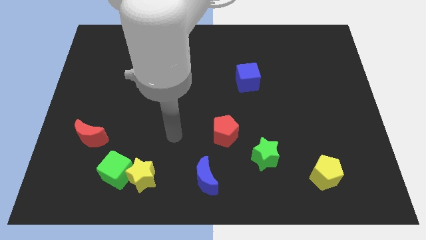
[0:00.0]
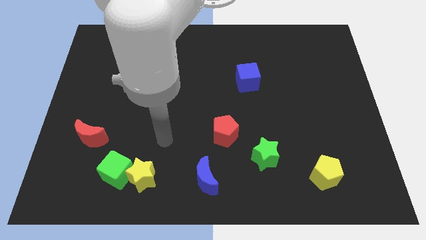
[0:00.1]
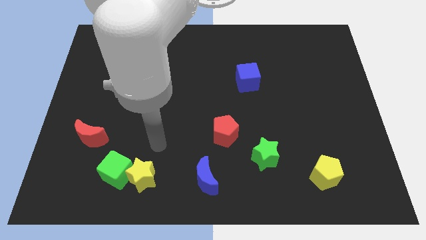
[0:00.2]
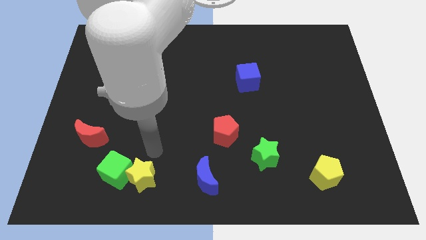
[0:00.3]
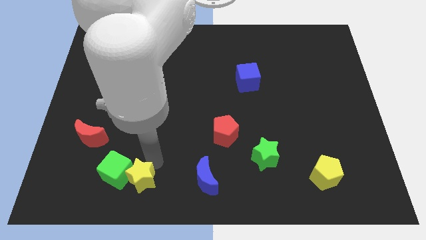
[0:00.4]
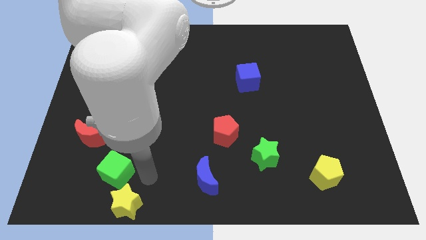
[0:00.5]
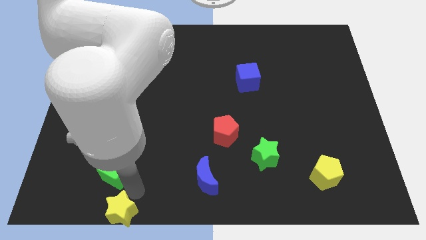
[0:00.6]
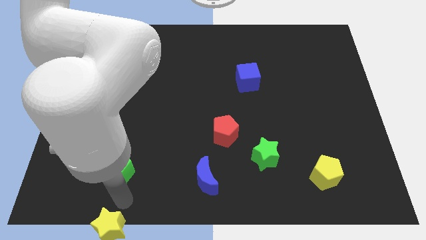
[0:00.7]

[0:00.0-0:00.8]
pull the green cube apart from the yellow star

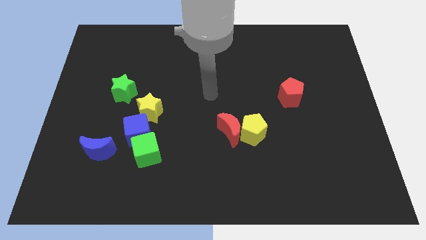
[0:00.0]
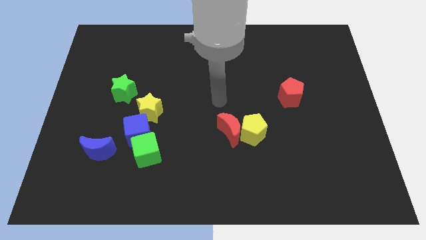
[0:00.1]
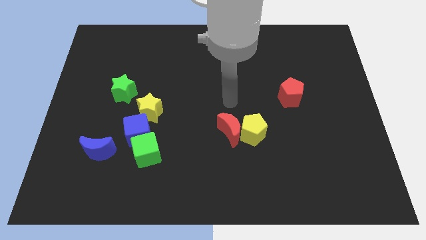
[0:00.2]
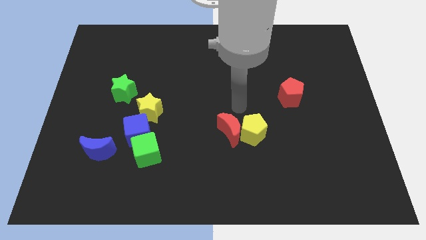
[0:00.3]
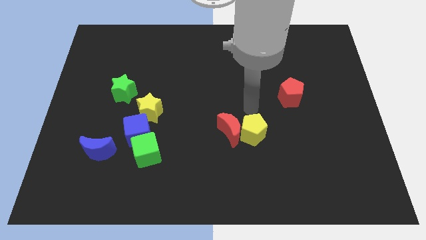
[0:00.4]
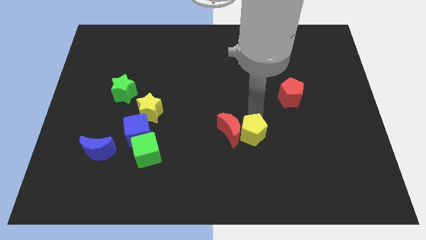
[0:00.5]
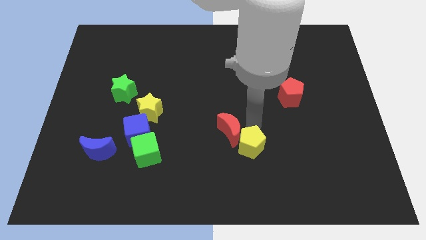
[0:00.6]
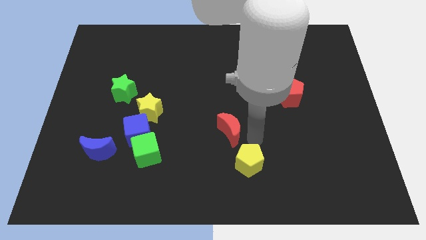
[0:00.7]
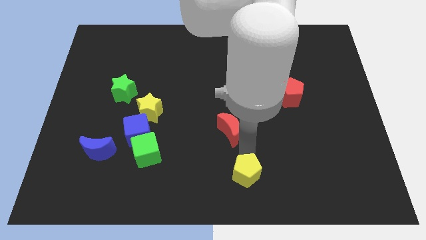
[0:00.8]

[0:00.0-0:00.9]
separate the red moon from the yellow pentagon

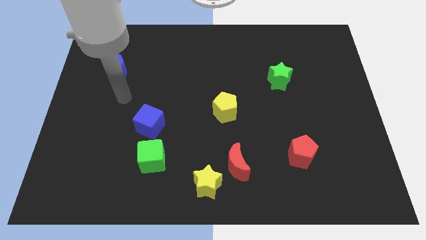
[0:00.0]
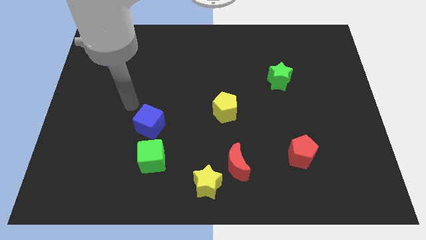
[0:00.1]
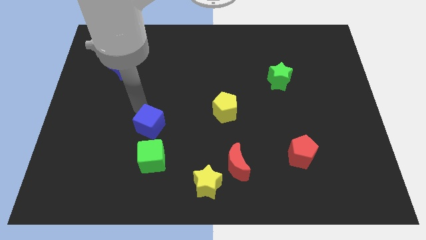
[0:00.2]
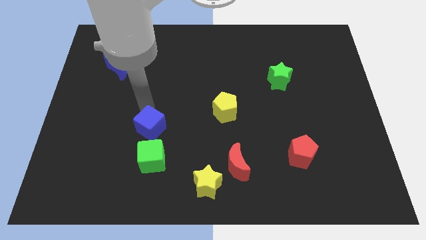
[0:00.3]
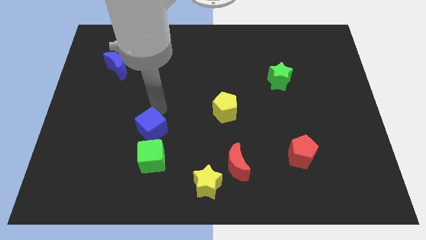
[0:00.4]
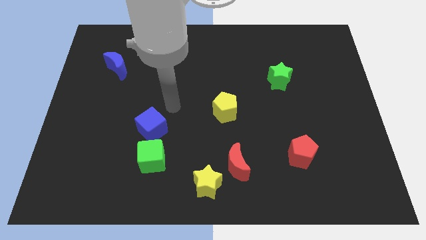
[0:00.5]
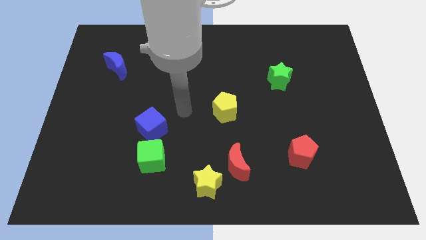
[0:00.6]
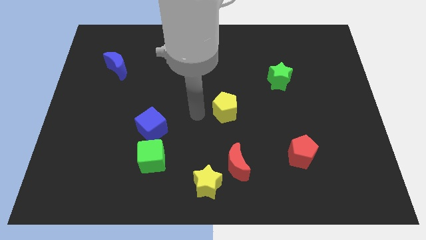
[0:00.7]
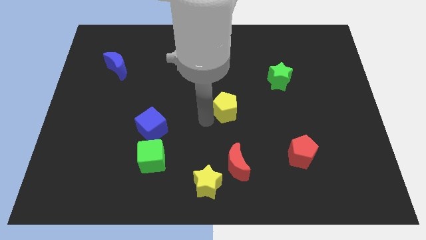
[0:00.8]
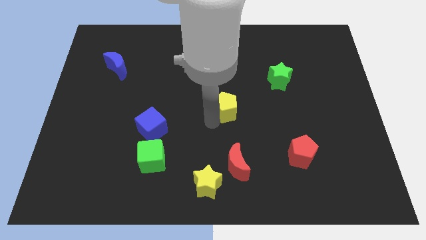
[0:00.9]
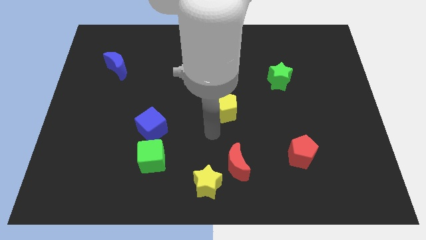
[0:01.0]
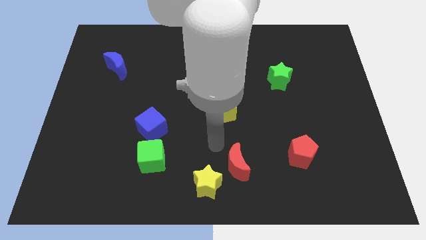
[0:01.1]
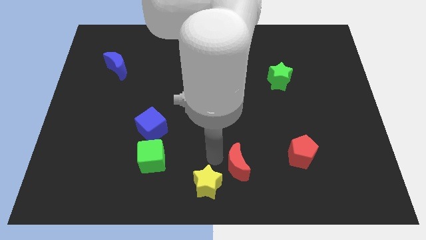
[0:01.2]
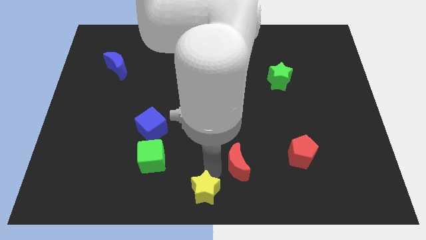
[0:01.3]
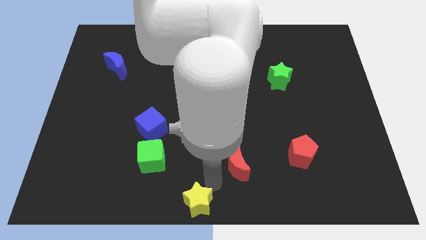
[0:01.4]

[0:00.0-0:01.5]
pull the red moon apart from the yellow star

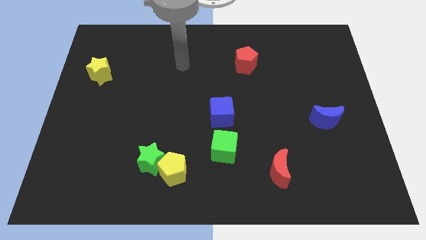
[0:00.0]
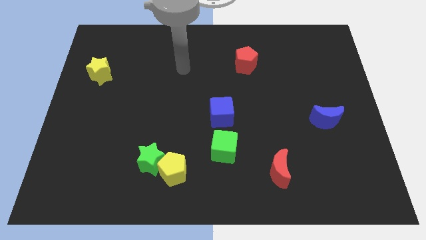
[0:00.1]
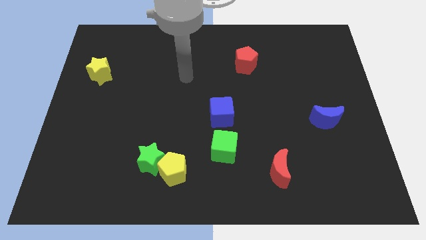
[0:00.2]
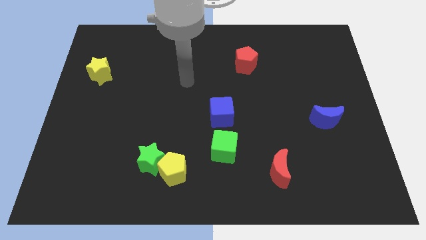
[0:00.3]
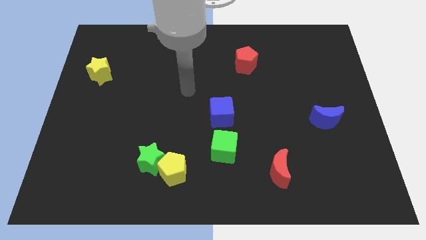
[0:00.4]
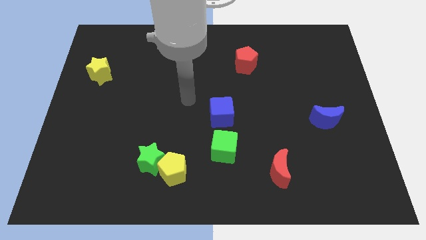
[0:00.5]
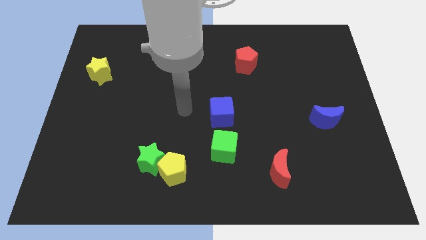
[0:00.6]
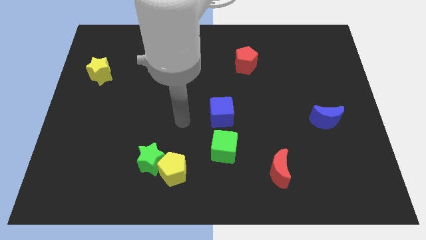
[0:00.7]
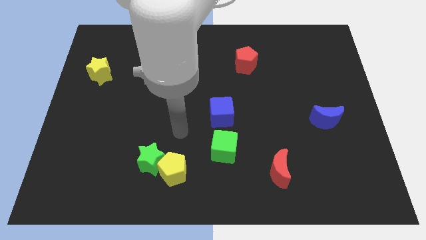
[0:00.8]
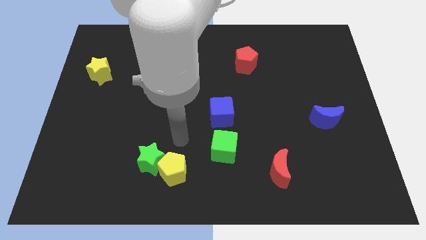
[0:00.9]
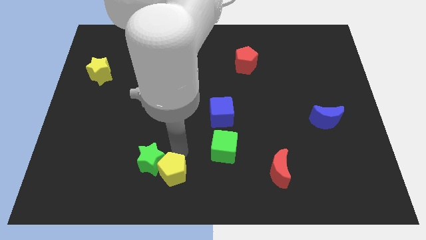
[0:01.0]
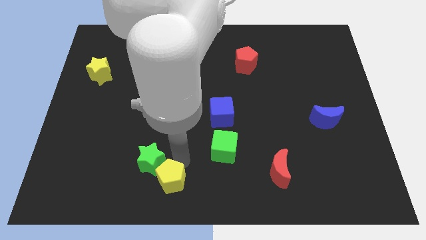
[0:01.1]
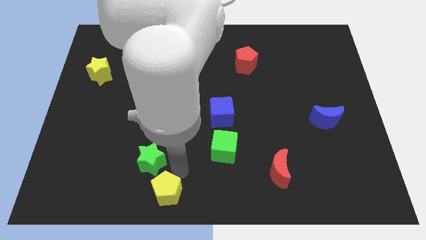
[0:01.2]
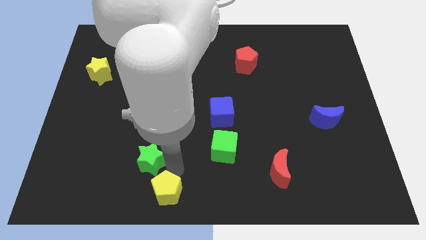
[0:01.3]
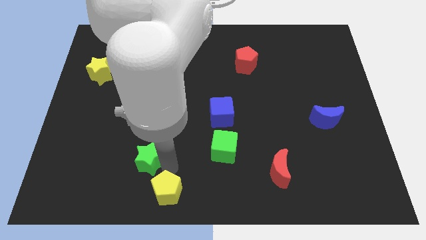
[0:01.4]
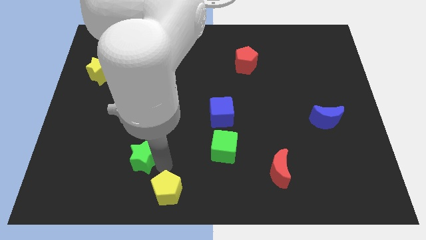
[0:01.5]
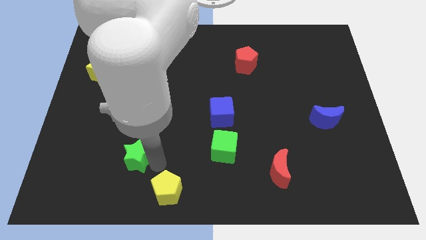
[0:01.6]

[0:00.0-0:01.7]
pull the green star apart from the yellow pentagon

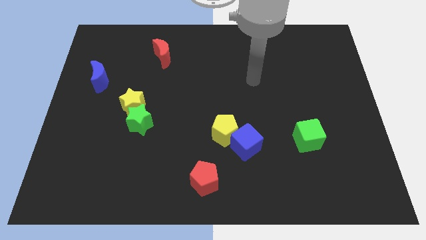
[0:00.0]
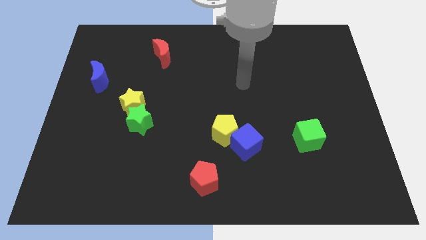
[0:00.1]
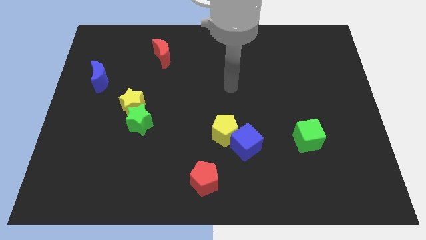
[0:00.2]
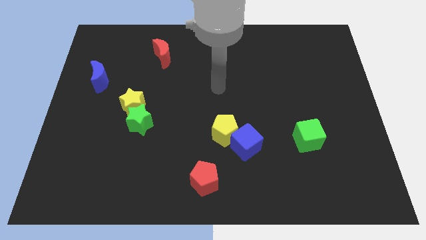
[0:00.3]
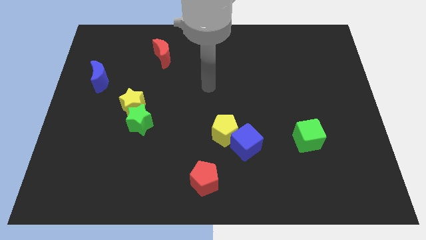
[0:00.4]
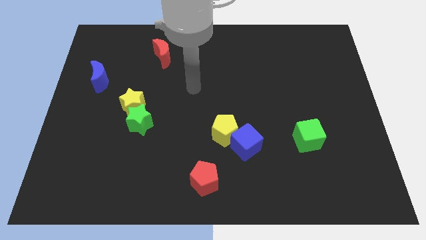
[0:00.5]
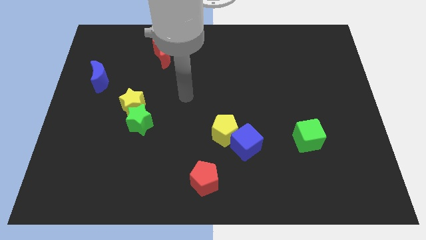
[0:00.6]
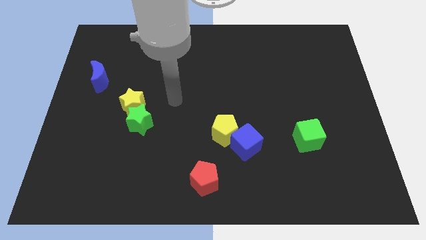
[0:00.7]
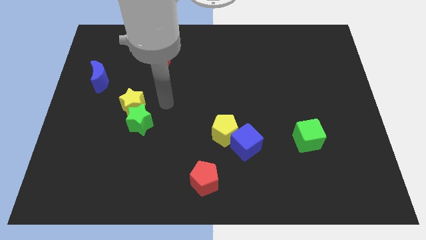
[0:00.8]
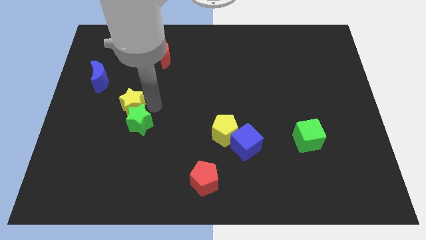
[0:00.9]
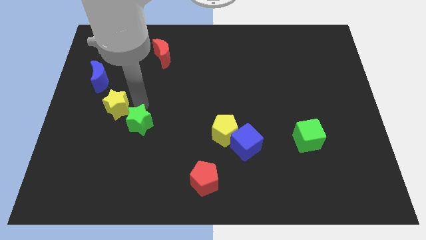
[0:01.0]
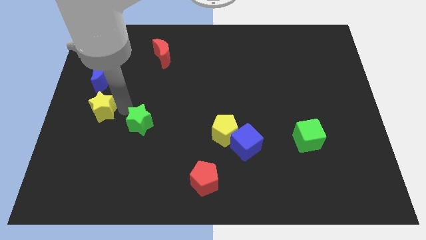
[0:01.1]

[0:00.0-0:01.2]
move the green star away from the yellow star

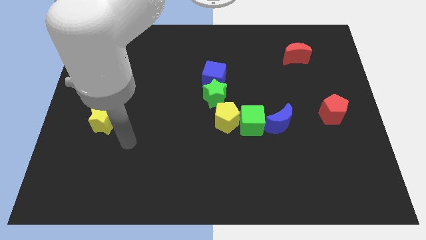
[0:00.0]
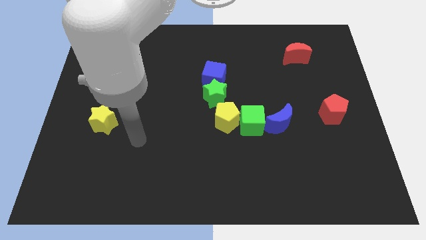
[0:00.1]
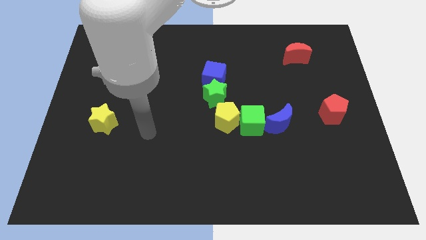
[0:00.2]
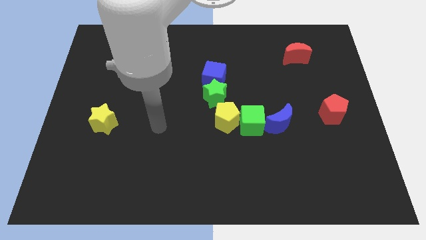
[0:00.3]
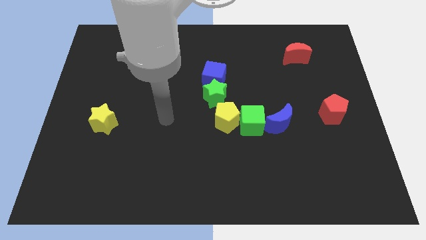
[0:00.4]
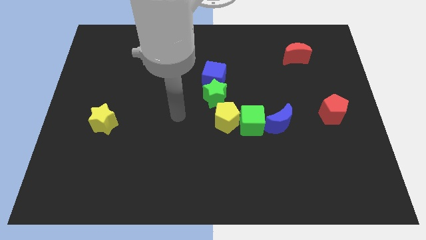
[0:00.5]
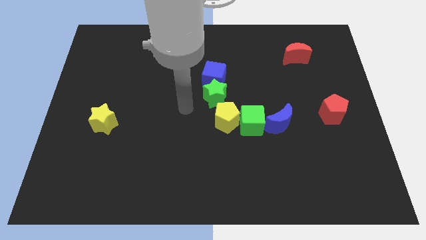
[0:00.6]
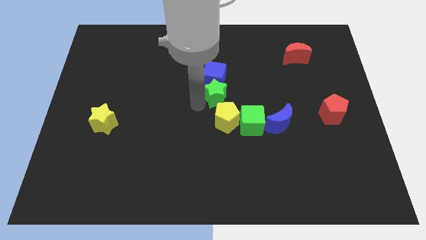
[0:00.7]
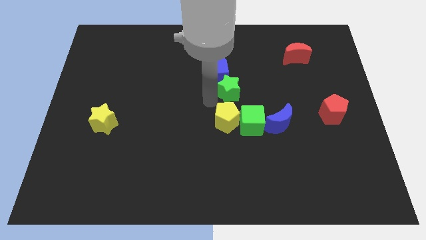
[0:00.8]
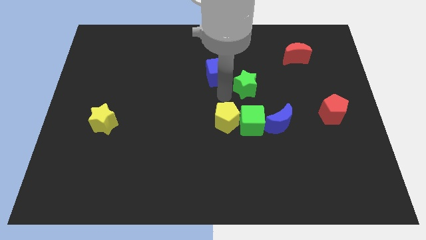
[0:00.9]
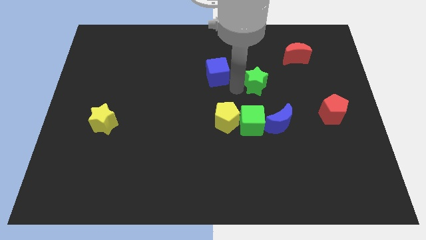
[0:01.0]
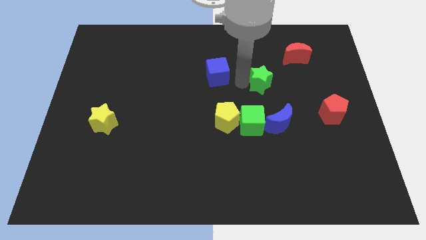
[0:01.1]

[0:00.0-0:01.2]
pull the blue cube apart from the green star

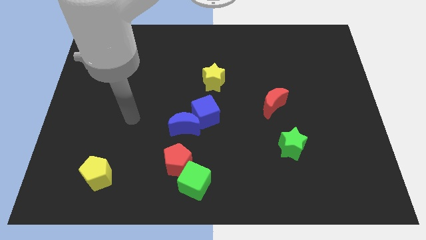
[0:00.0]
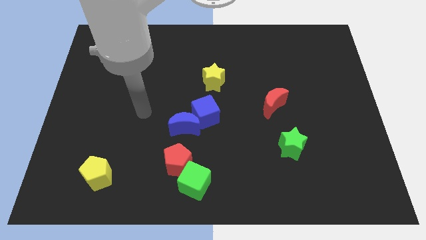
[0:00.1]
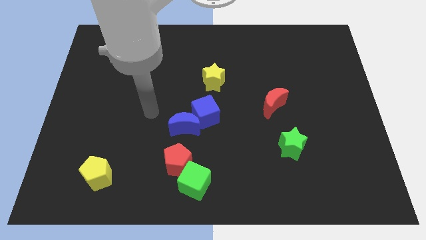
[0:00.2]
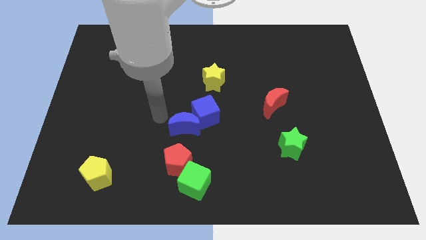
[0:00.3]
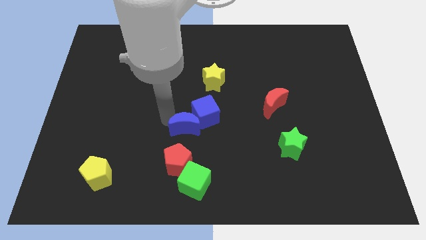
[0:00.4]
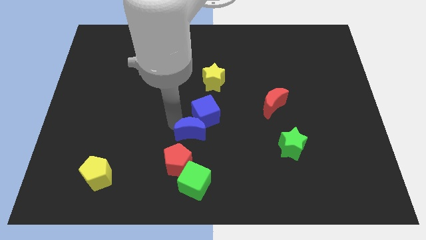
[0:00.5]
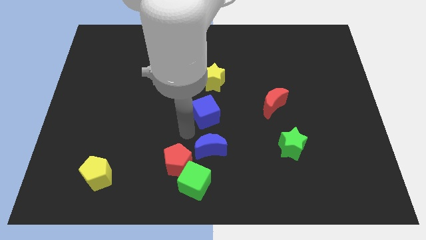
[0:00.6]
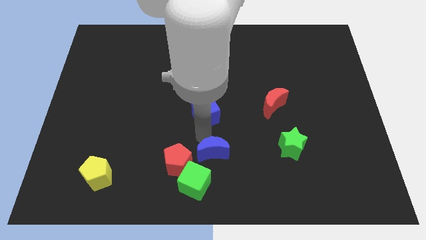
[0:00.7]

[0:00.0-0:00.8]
pull the blue cube apart from the blue moon

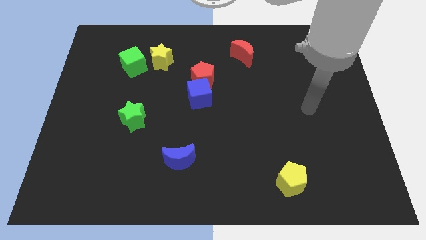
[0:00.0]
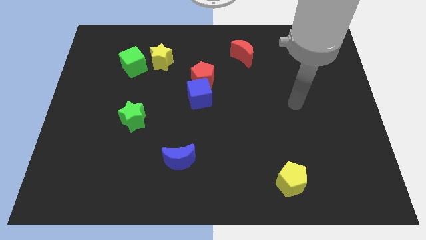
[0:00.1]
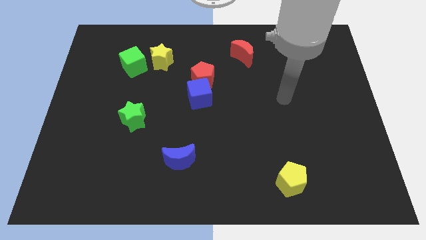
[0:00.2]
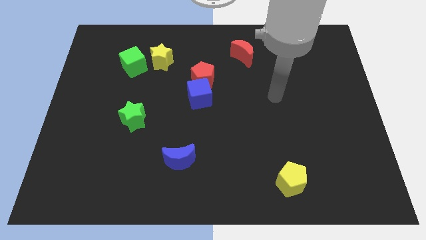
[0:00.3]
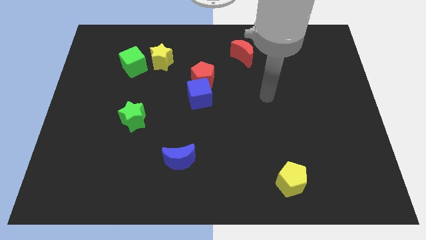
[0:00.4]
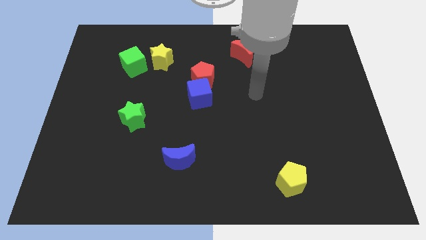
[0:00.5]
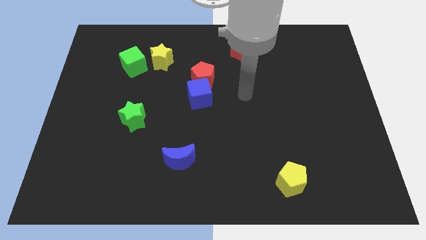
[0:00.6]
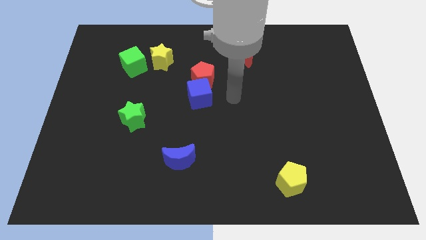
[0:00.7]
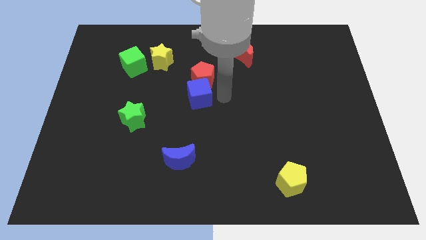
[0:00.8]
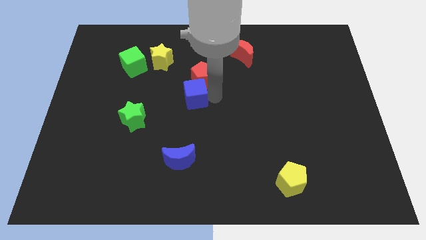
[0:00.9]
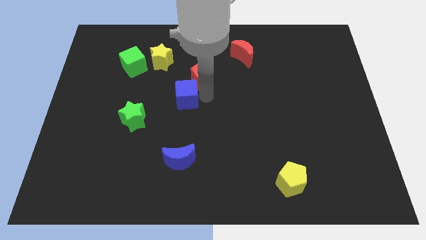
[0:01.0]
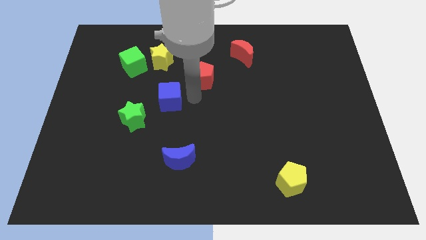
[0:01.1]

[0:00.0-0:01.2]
move the red pentagon away from the blue cube

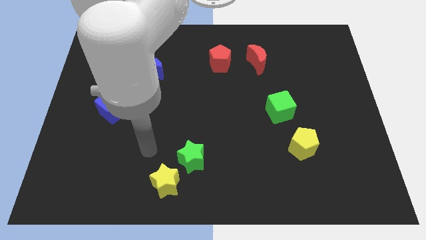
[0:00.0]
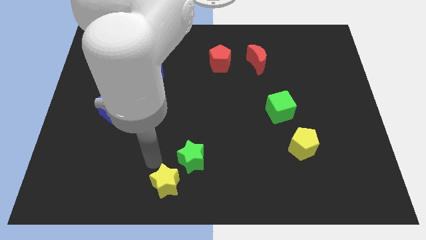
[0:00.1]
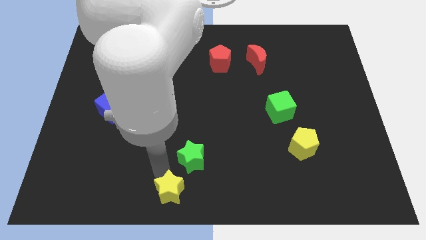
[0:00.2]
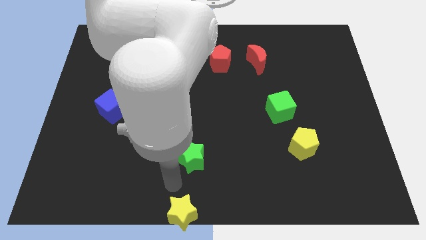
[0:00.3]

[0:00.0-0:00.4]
pull the green star apart from the yellow star
